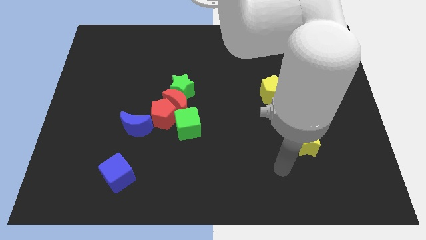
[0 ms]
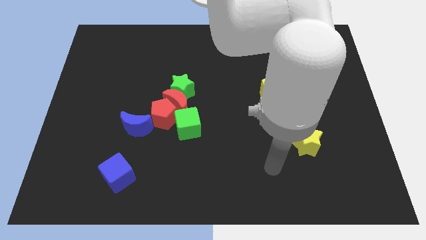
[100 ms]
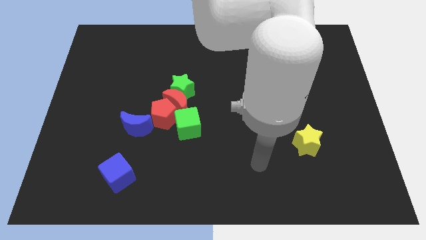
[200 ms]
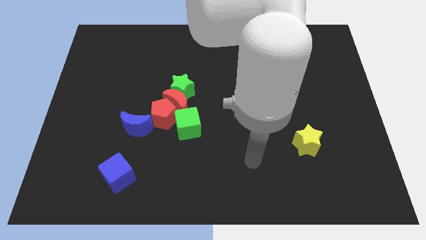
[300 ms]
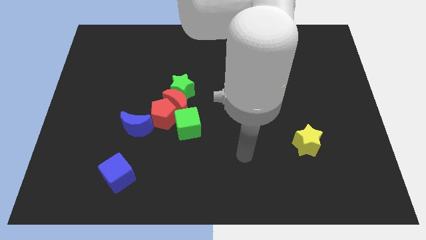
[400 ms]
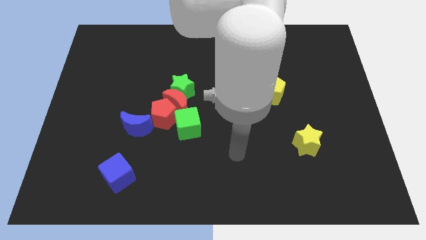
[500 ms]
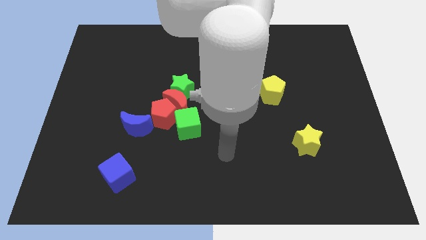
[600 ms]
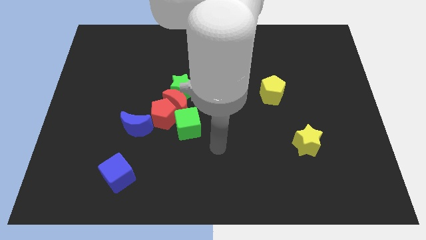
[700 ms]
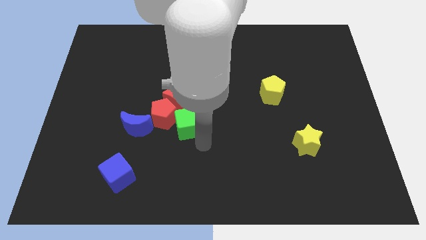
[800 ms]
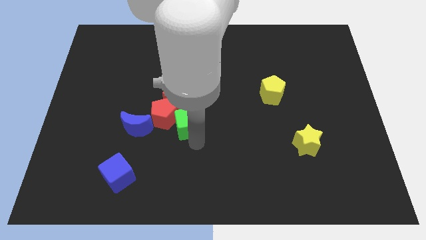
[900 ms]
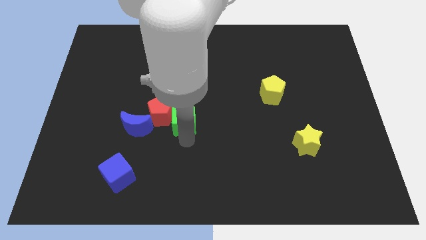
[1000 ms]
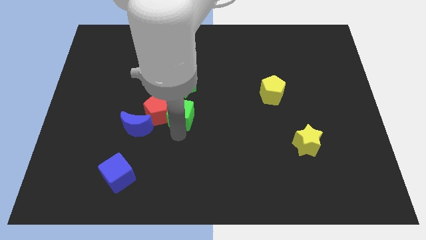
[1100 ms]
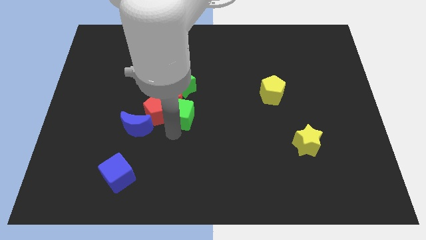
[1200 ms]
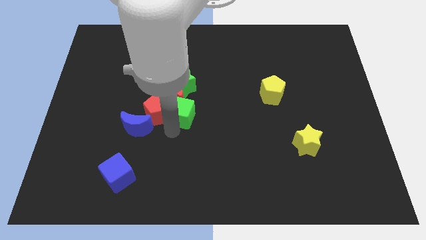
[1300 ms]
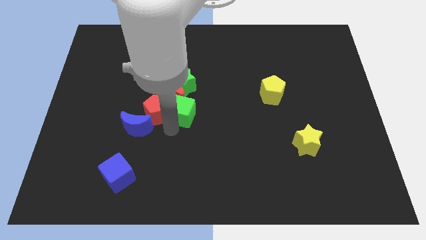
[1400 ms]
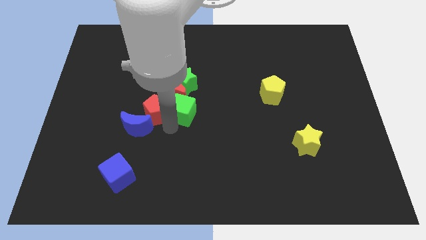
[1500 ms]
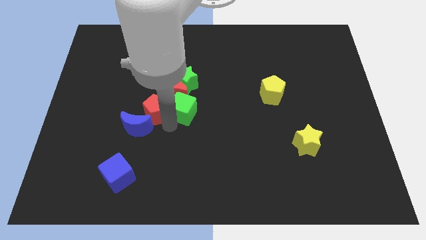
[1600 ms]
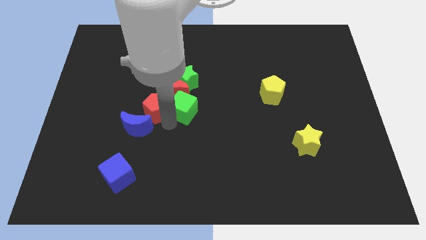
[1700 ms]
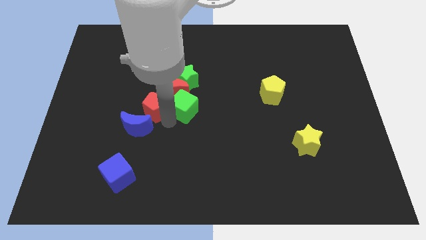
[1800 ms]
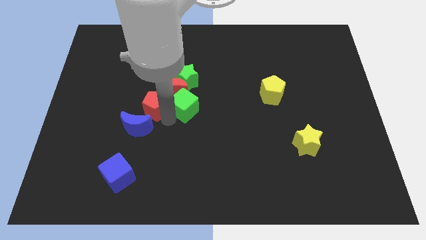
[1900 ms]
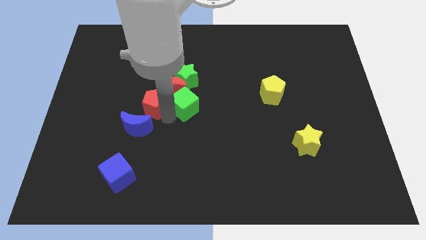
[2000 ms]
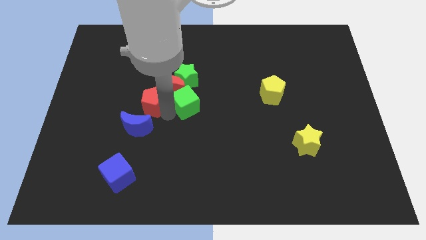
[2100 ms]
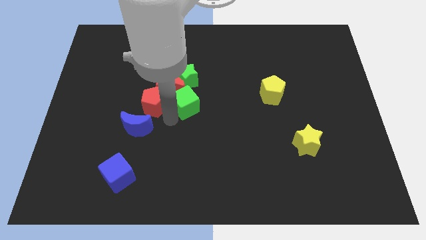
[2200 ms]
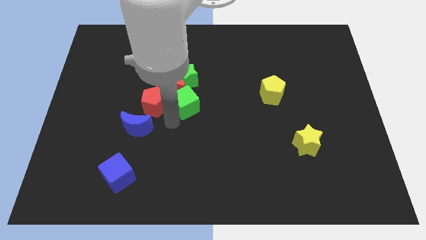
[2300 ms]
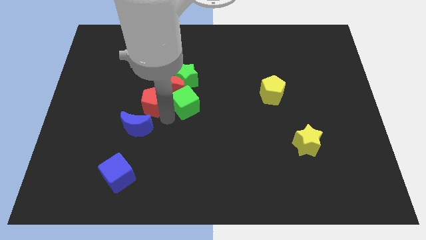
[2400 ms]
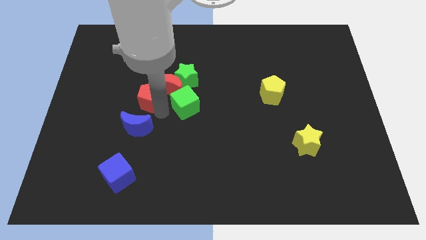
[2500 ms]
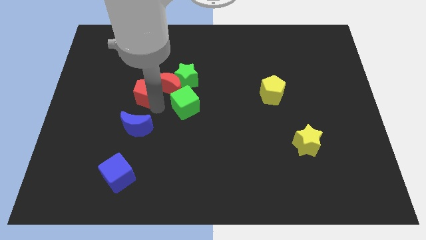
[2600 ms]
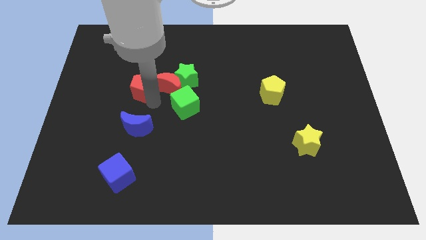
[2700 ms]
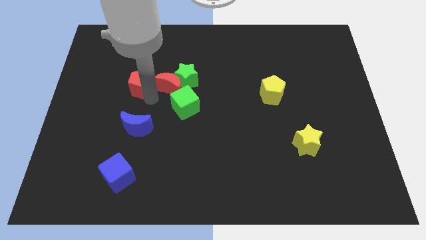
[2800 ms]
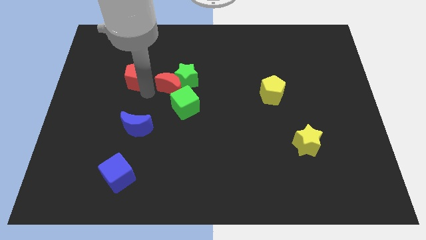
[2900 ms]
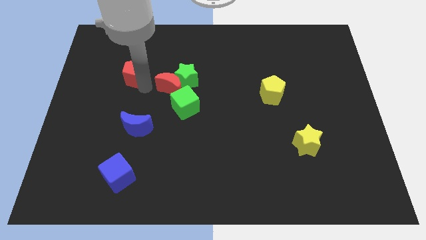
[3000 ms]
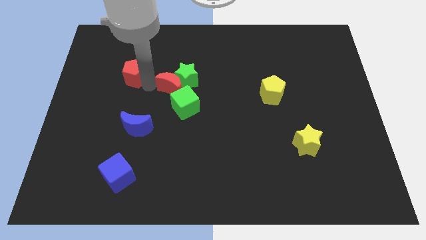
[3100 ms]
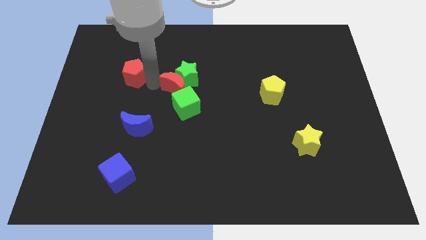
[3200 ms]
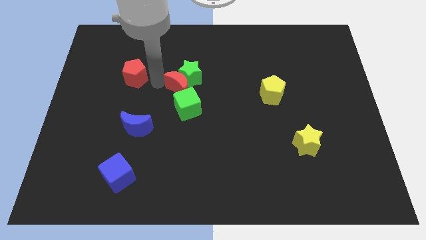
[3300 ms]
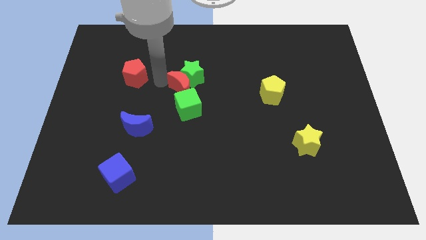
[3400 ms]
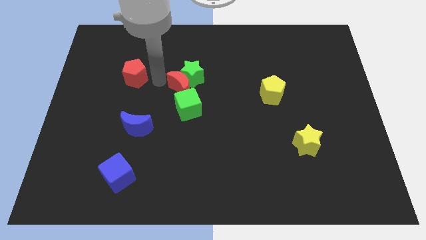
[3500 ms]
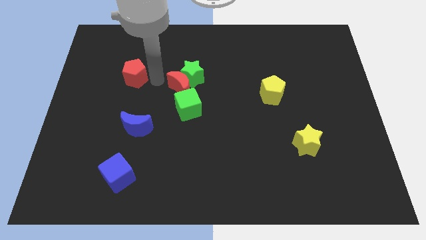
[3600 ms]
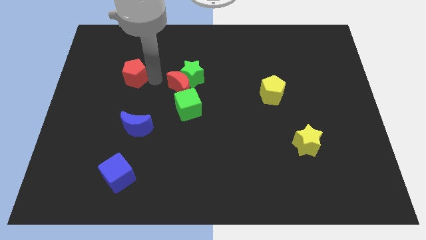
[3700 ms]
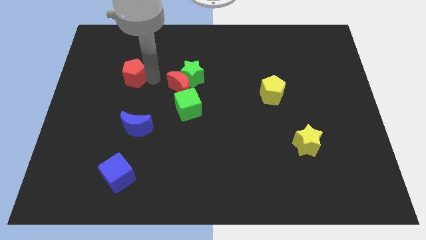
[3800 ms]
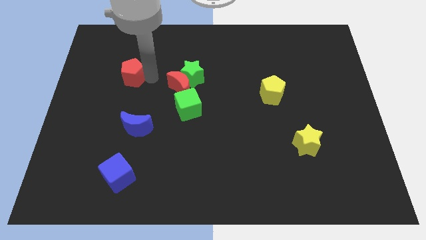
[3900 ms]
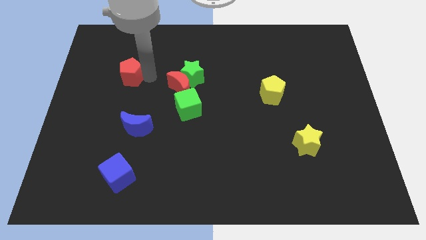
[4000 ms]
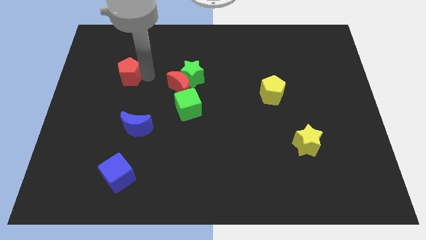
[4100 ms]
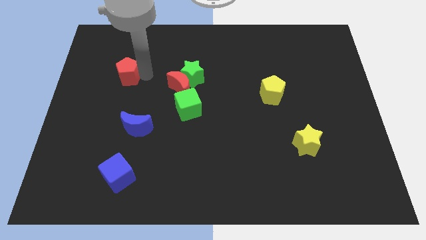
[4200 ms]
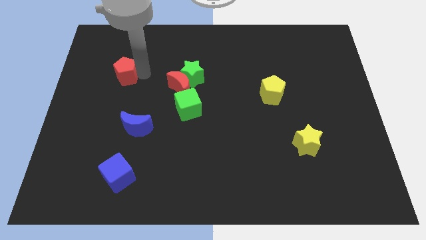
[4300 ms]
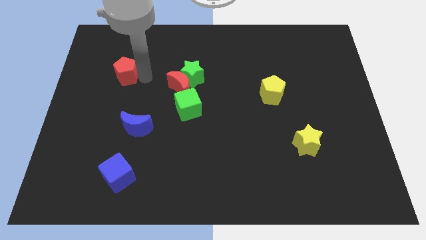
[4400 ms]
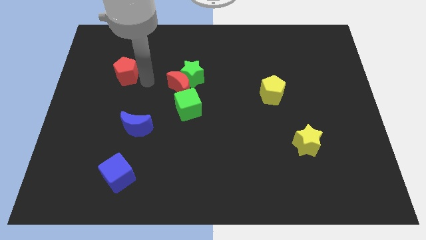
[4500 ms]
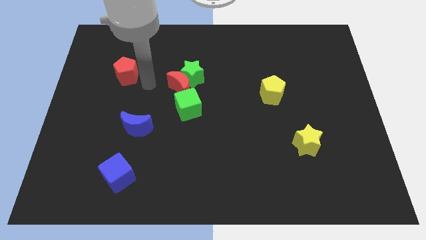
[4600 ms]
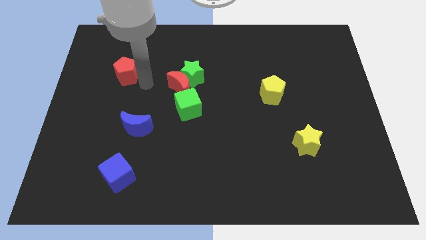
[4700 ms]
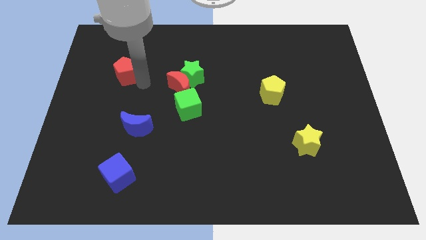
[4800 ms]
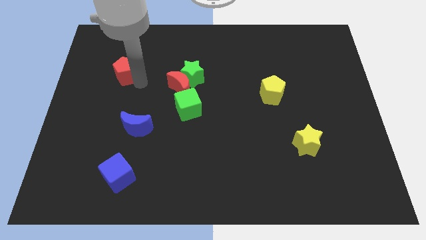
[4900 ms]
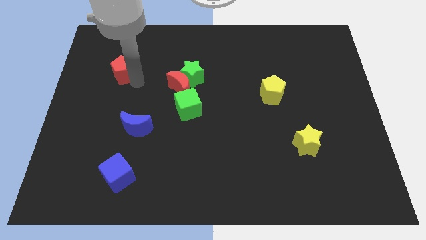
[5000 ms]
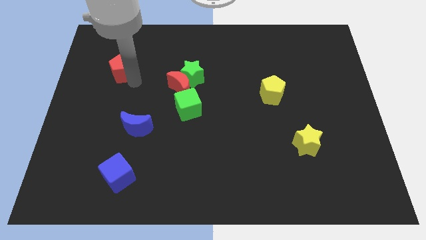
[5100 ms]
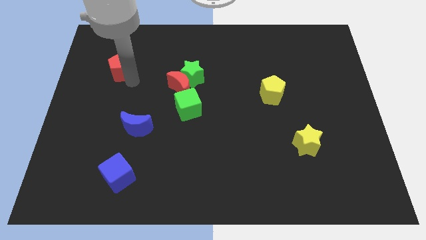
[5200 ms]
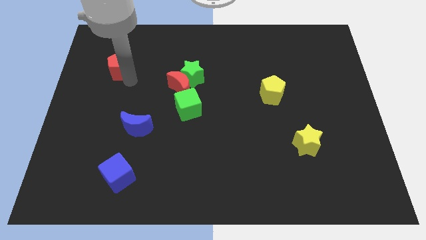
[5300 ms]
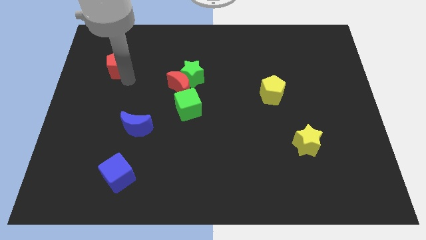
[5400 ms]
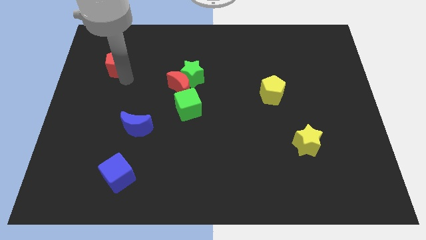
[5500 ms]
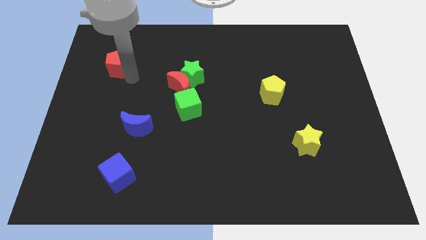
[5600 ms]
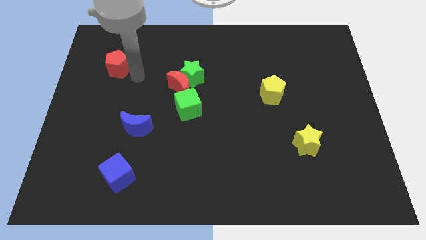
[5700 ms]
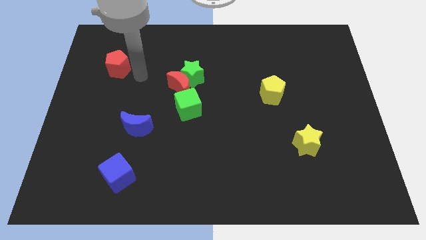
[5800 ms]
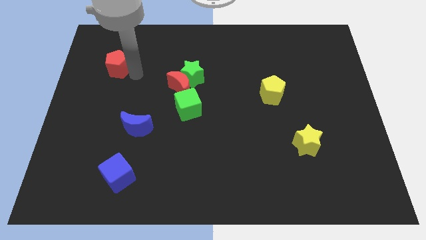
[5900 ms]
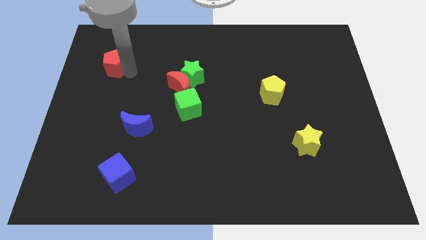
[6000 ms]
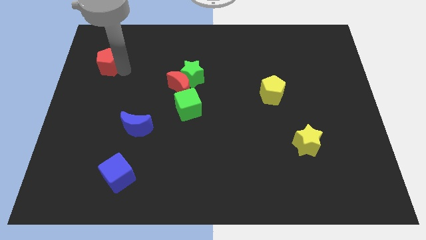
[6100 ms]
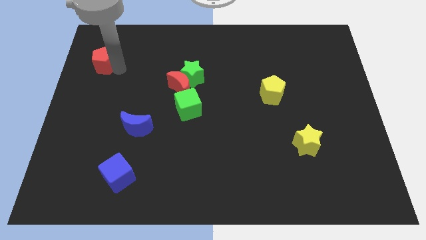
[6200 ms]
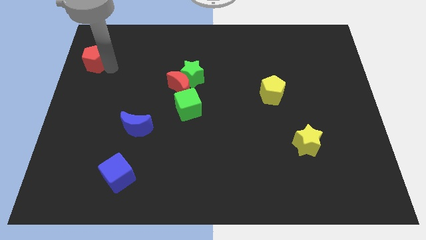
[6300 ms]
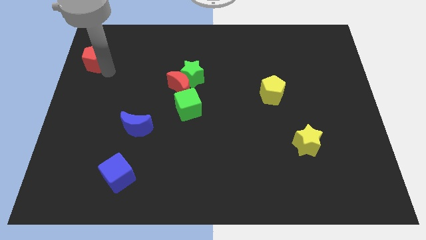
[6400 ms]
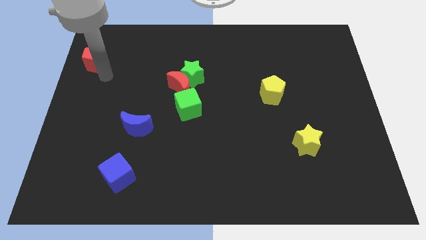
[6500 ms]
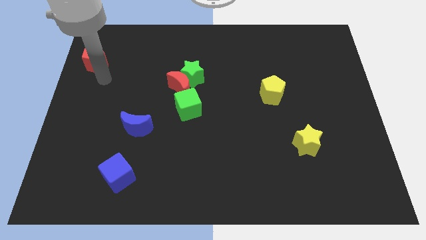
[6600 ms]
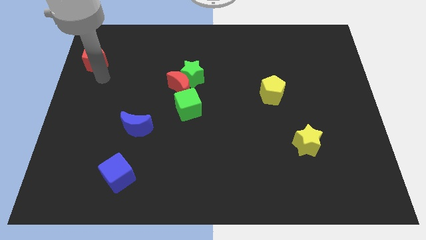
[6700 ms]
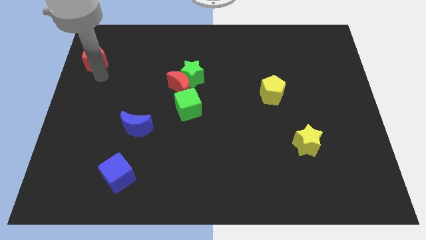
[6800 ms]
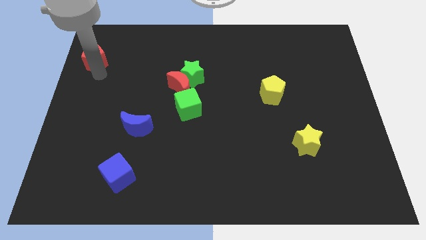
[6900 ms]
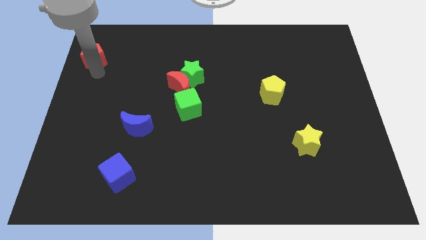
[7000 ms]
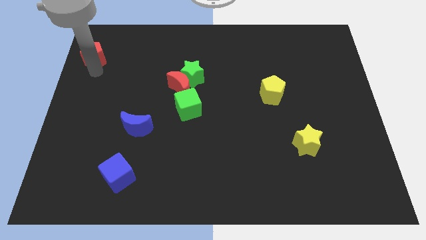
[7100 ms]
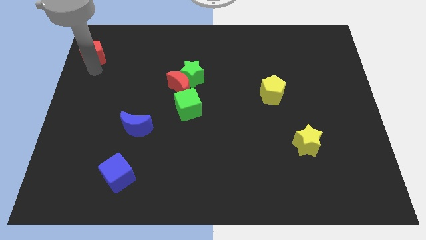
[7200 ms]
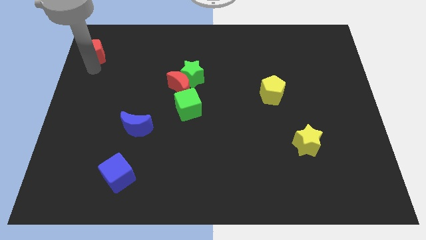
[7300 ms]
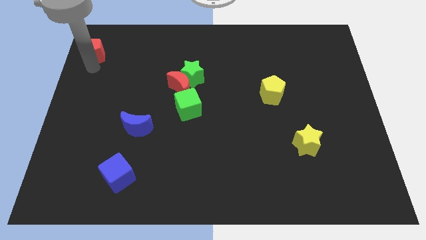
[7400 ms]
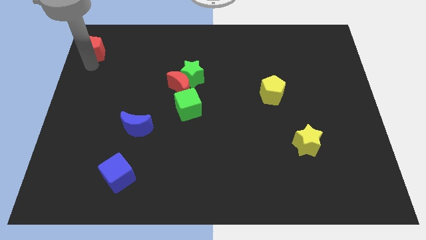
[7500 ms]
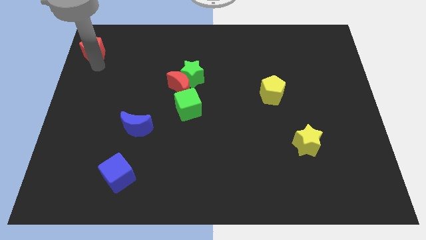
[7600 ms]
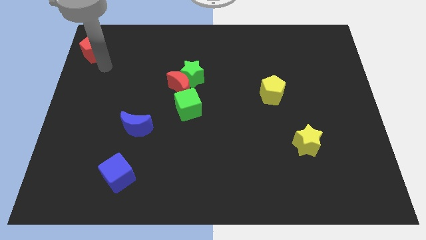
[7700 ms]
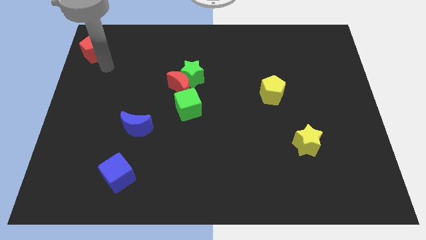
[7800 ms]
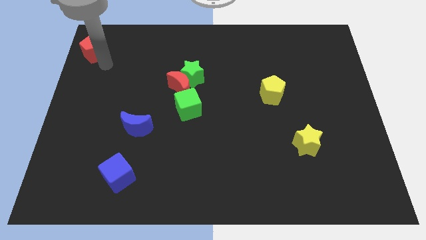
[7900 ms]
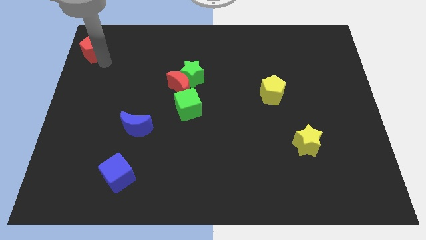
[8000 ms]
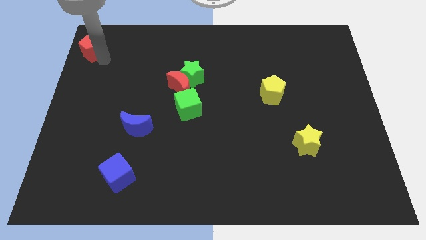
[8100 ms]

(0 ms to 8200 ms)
move the red pentagon to the upper left corner
